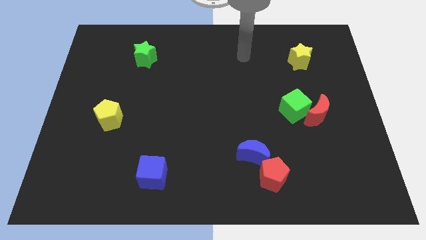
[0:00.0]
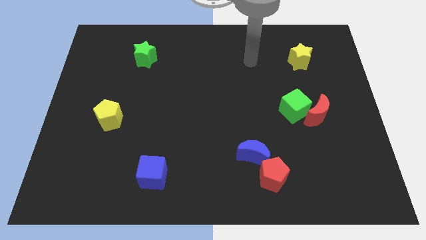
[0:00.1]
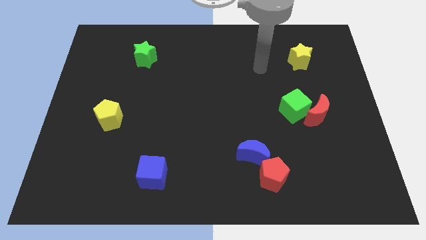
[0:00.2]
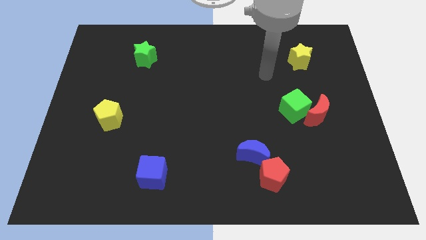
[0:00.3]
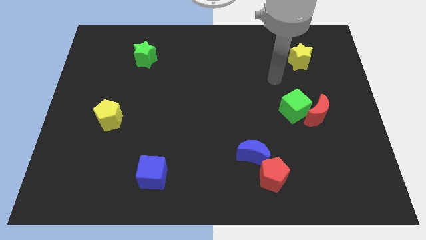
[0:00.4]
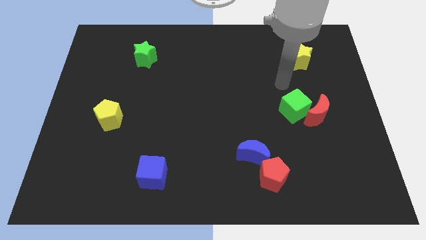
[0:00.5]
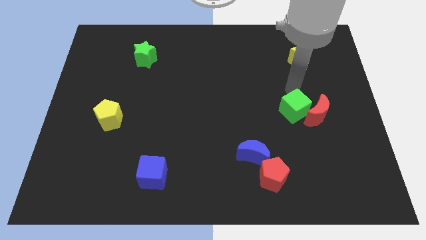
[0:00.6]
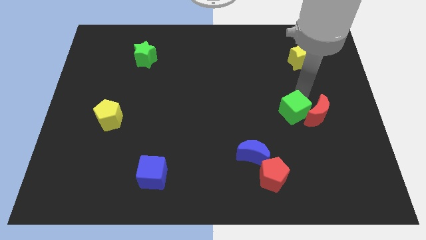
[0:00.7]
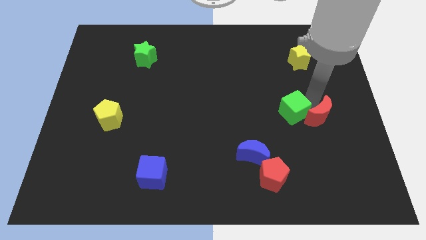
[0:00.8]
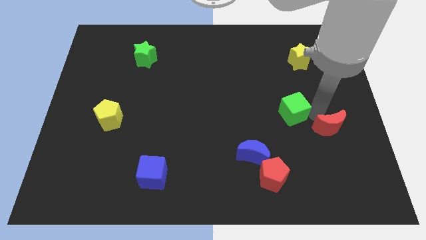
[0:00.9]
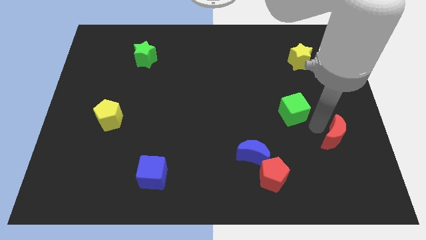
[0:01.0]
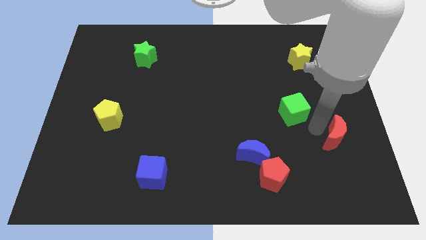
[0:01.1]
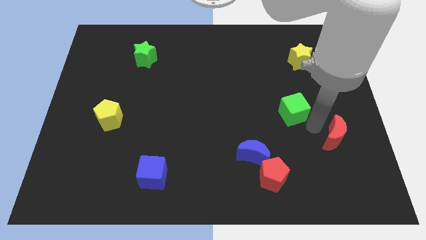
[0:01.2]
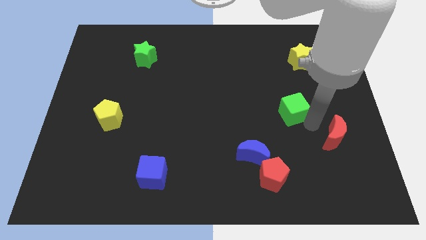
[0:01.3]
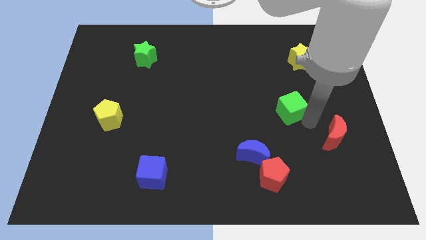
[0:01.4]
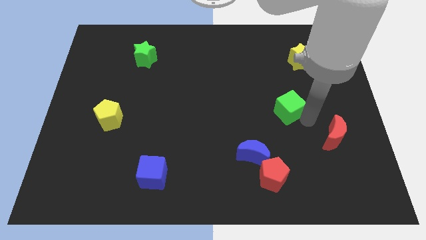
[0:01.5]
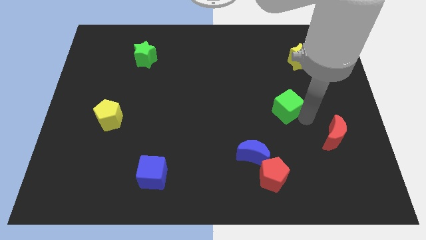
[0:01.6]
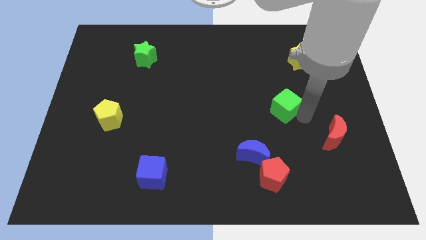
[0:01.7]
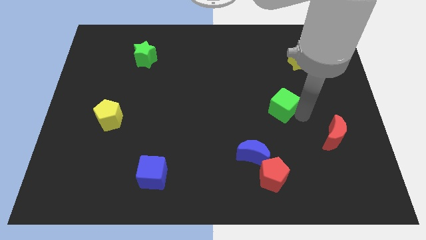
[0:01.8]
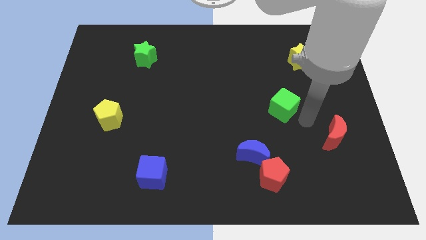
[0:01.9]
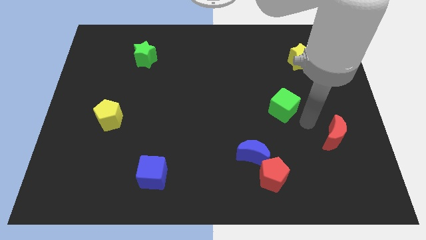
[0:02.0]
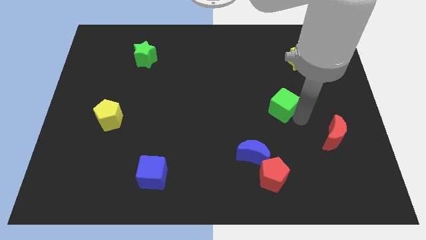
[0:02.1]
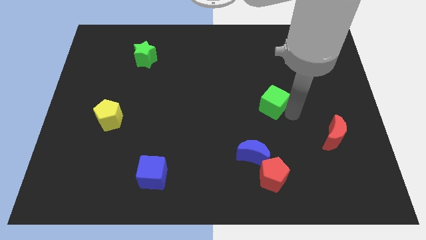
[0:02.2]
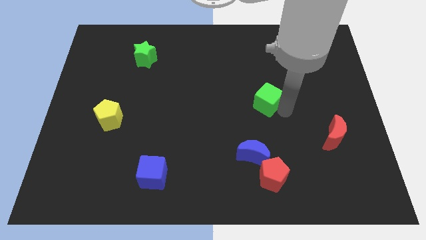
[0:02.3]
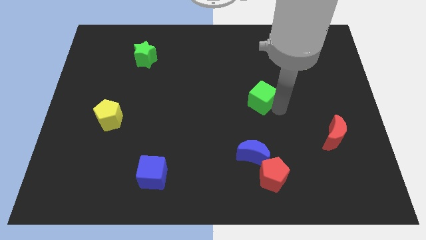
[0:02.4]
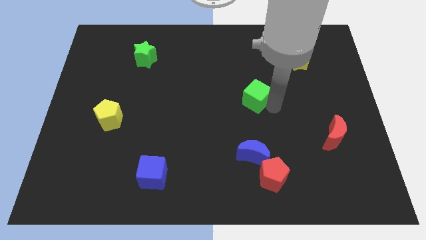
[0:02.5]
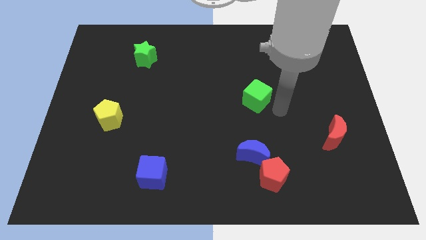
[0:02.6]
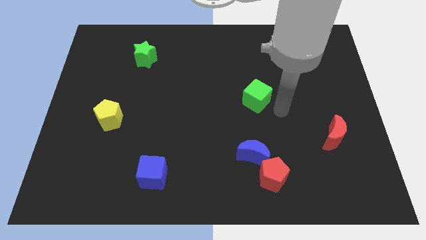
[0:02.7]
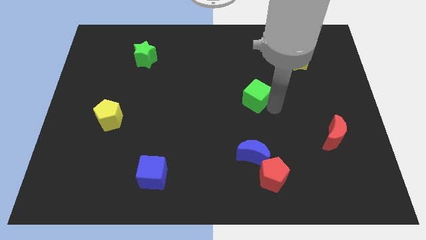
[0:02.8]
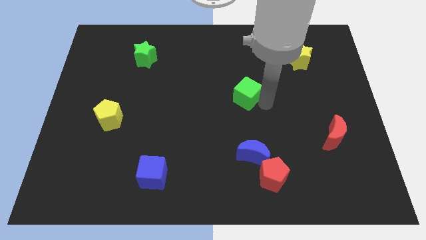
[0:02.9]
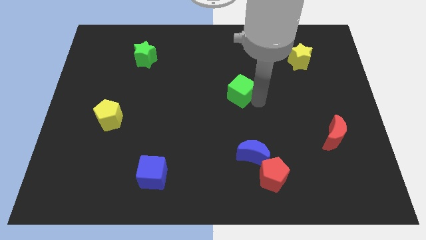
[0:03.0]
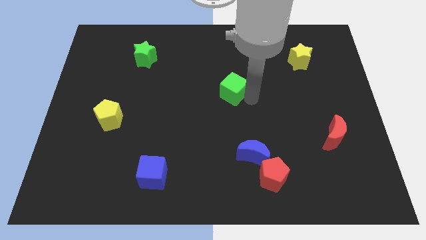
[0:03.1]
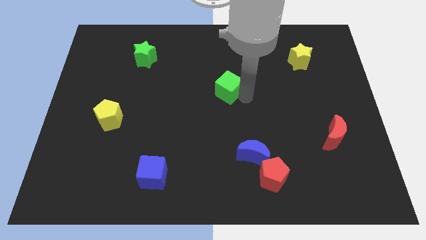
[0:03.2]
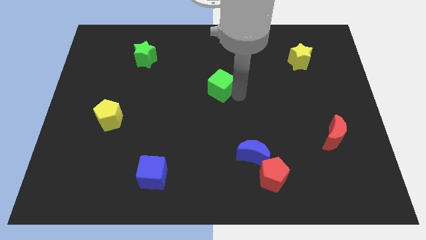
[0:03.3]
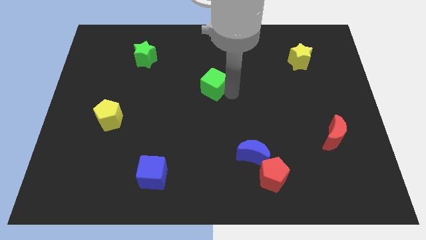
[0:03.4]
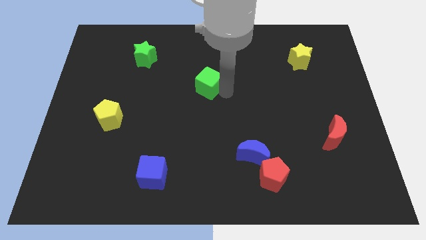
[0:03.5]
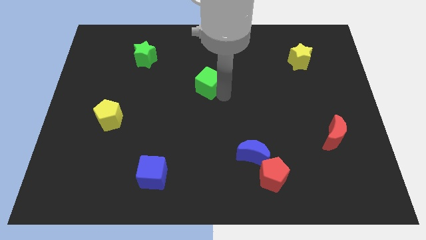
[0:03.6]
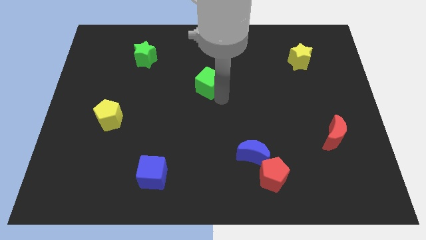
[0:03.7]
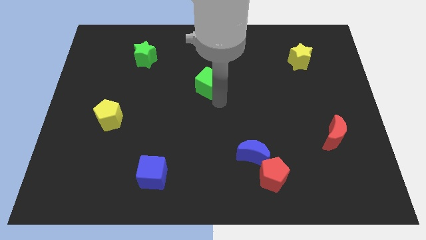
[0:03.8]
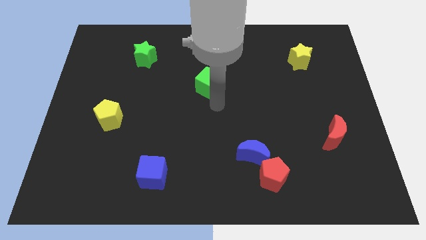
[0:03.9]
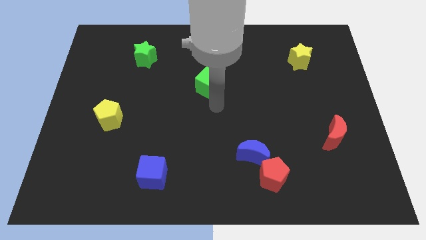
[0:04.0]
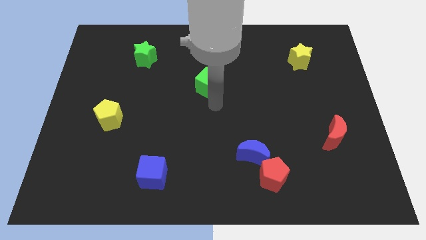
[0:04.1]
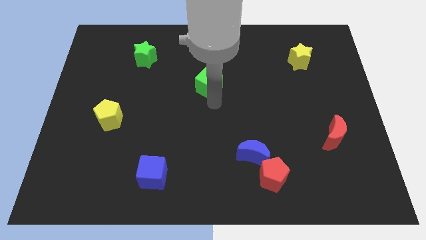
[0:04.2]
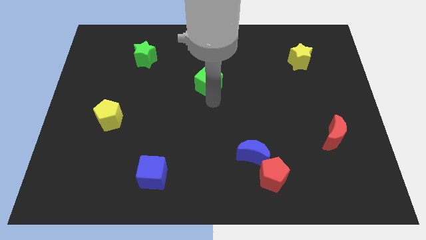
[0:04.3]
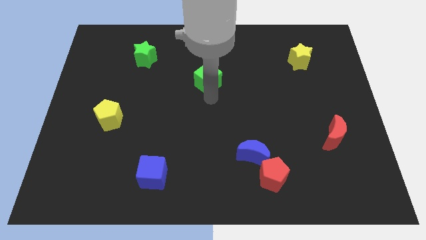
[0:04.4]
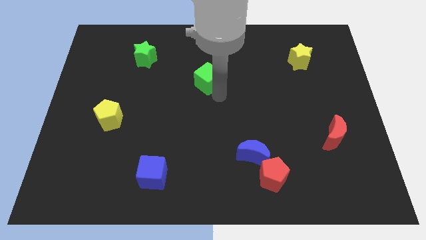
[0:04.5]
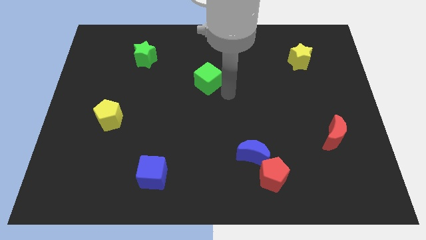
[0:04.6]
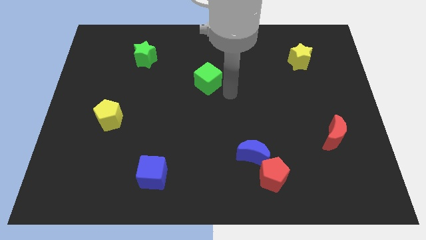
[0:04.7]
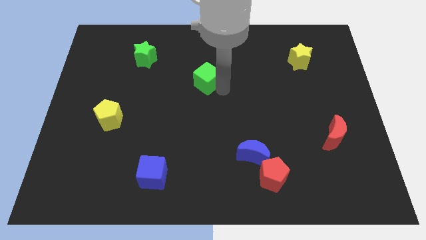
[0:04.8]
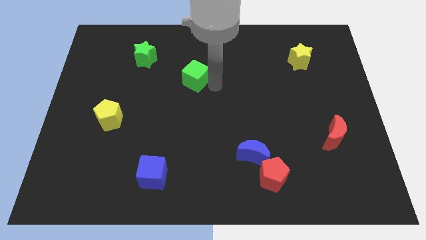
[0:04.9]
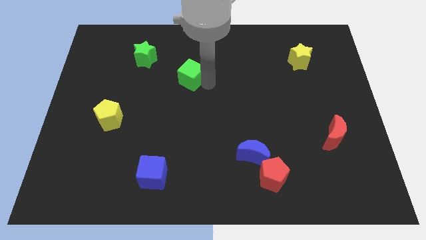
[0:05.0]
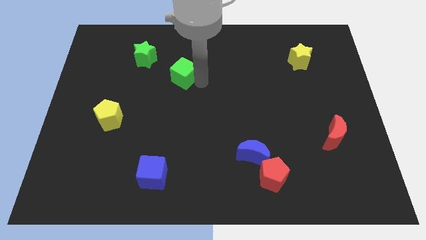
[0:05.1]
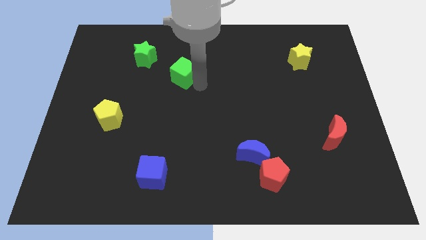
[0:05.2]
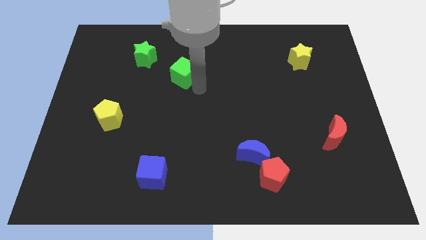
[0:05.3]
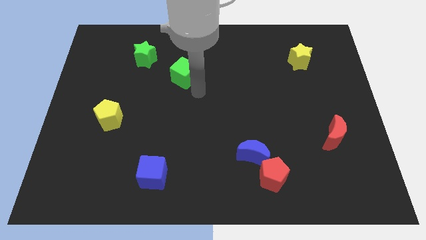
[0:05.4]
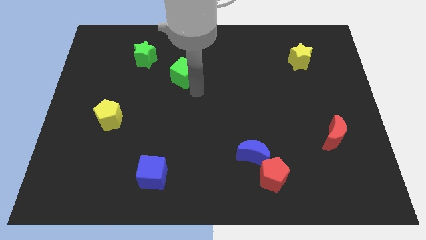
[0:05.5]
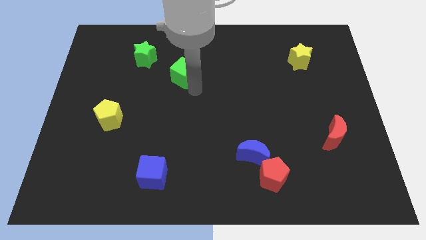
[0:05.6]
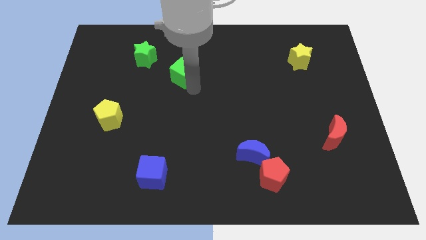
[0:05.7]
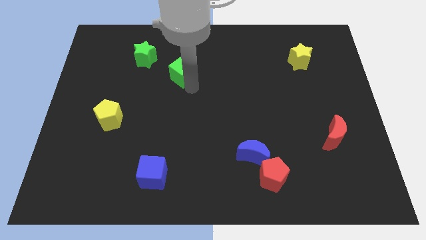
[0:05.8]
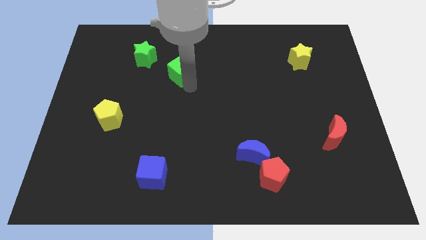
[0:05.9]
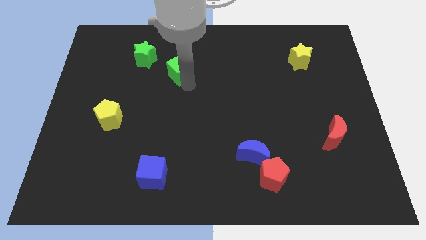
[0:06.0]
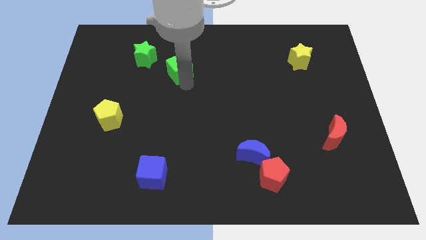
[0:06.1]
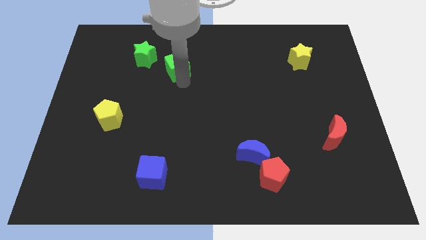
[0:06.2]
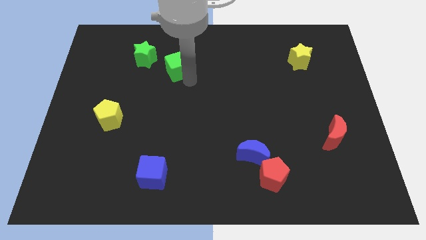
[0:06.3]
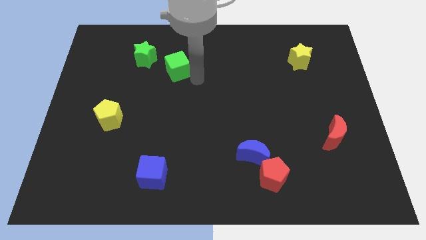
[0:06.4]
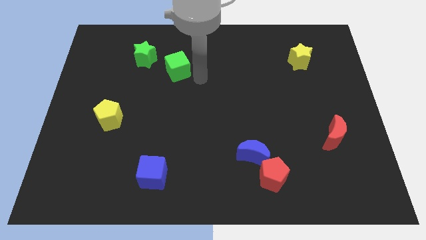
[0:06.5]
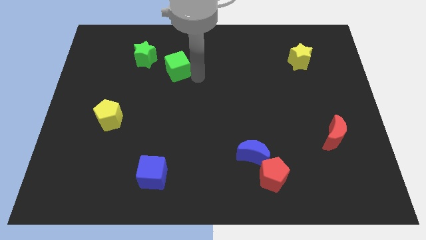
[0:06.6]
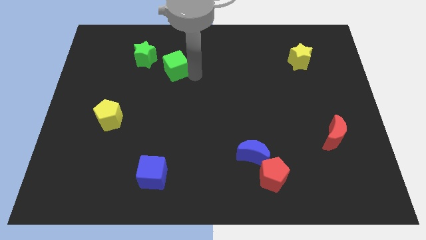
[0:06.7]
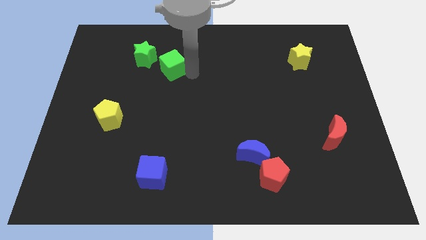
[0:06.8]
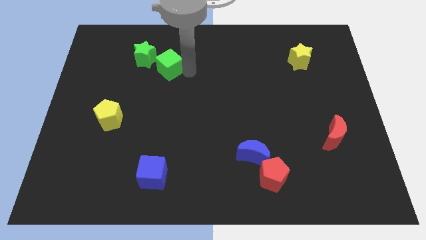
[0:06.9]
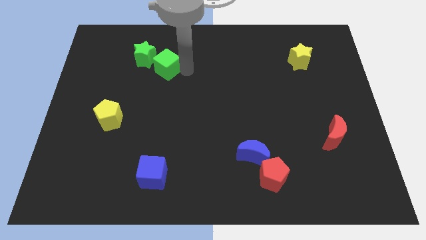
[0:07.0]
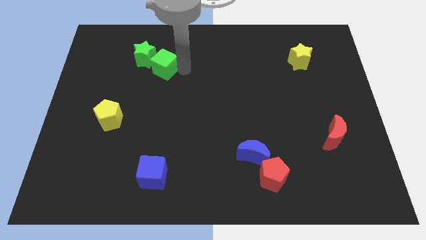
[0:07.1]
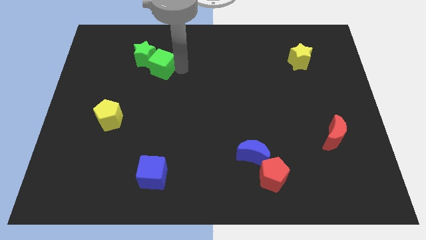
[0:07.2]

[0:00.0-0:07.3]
push the green cube next to the green star

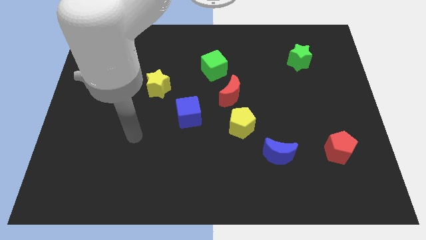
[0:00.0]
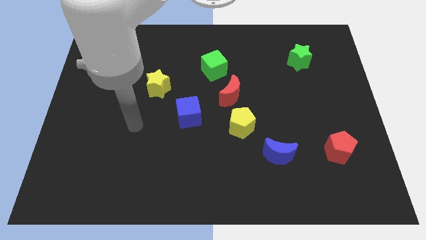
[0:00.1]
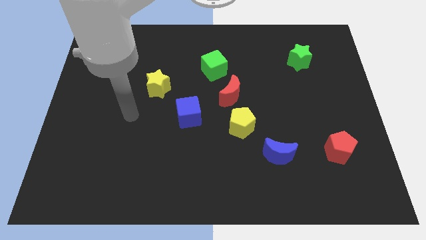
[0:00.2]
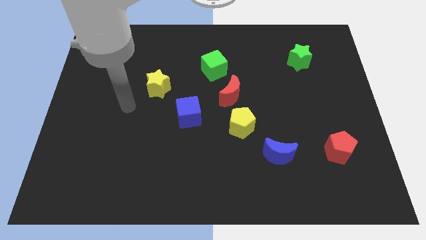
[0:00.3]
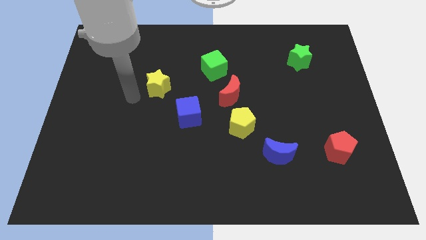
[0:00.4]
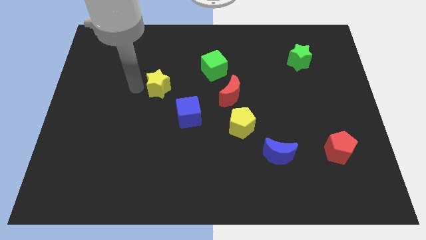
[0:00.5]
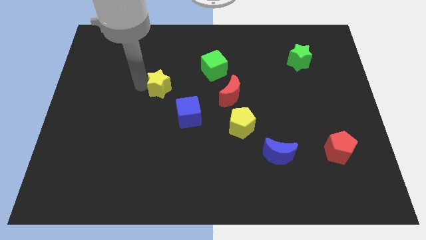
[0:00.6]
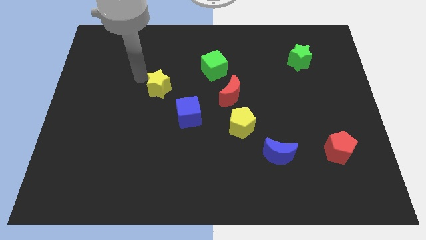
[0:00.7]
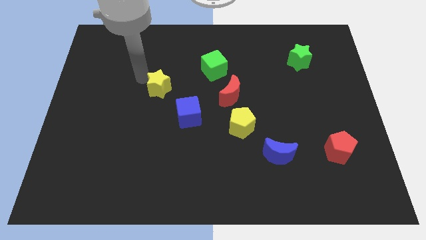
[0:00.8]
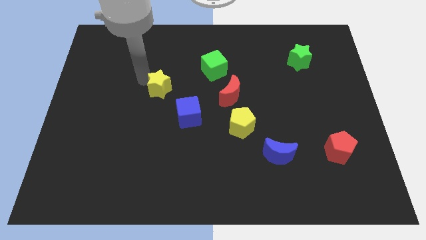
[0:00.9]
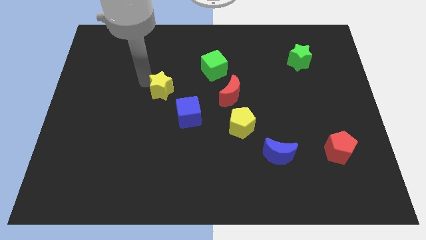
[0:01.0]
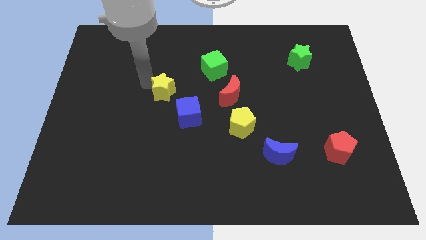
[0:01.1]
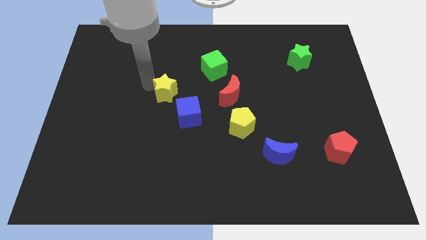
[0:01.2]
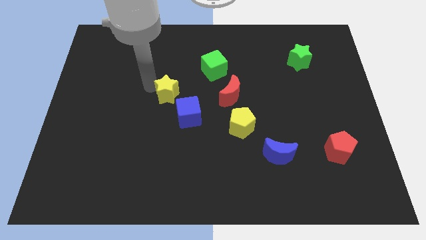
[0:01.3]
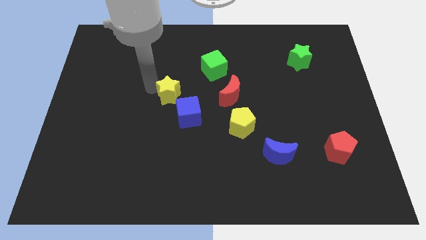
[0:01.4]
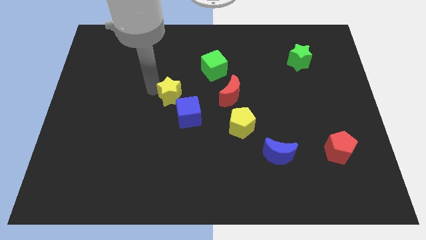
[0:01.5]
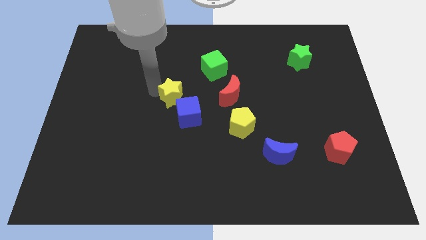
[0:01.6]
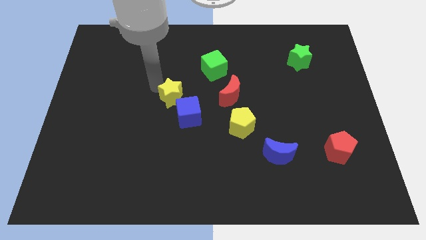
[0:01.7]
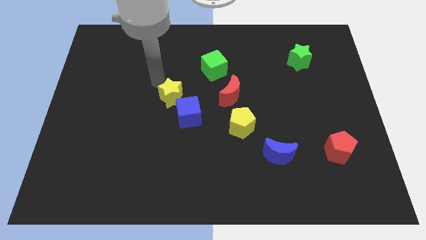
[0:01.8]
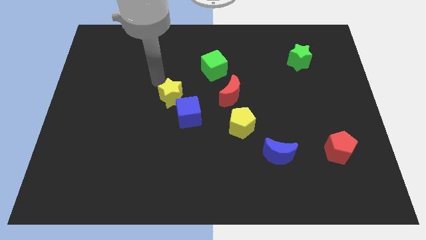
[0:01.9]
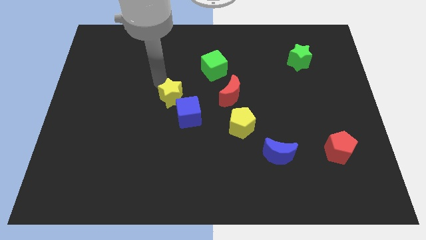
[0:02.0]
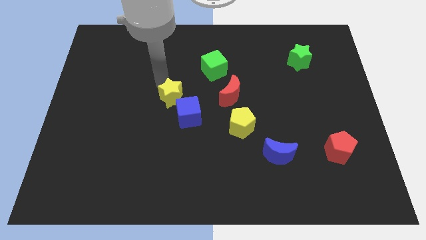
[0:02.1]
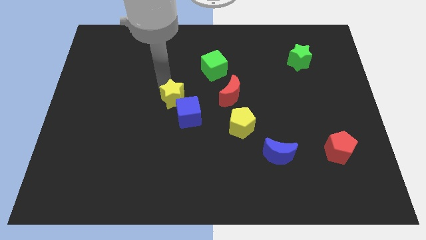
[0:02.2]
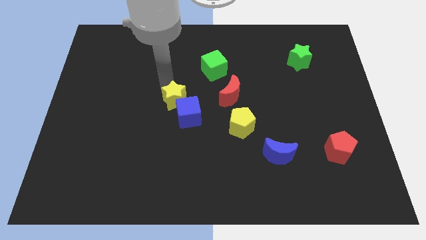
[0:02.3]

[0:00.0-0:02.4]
move the yellow star to the blue cube
